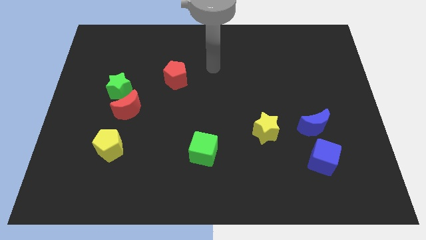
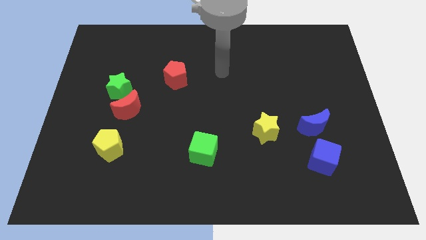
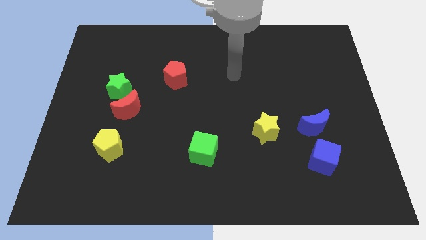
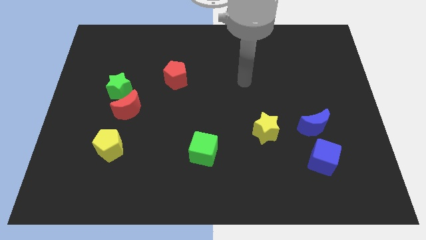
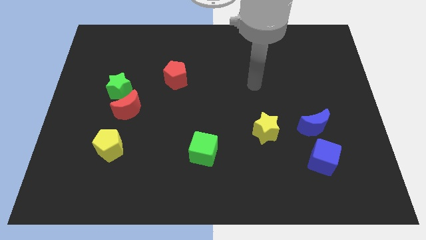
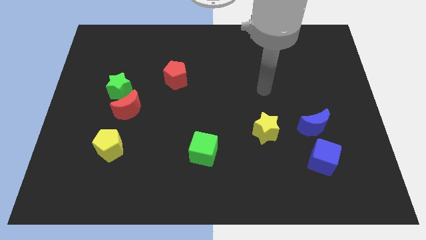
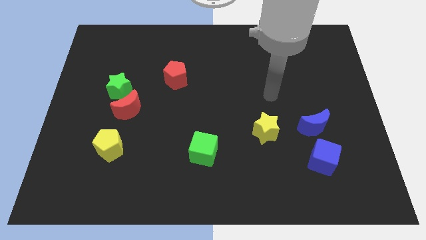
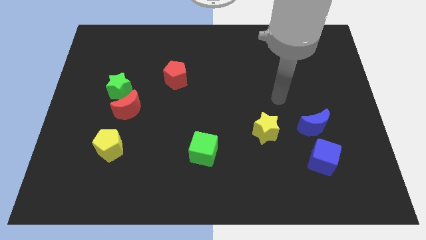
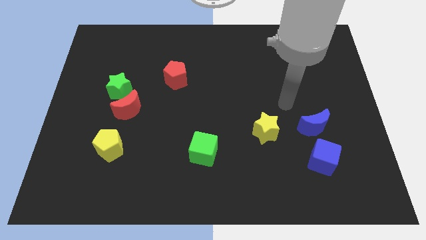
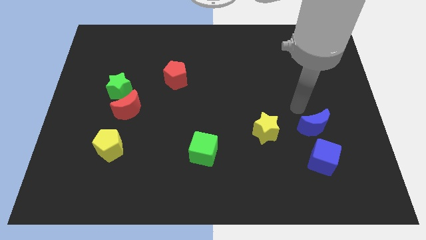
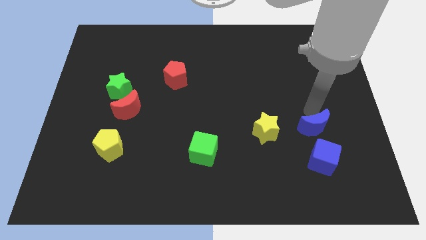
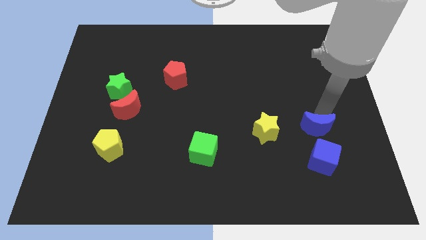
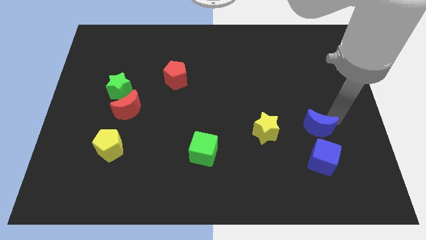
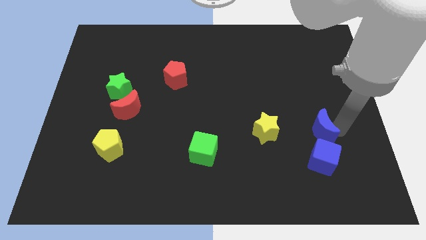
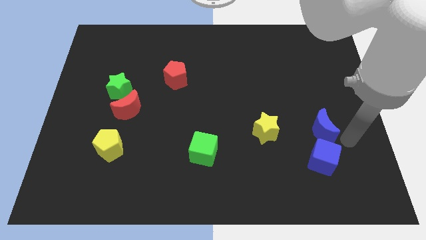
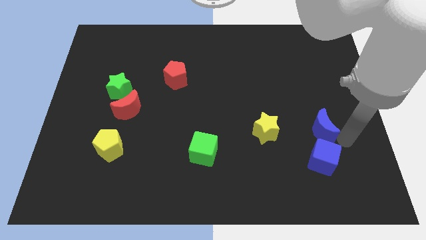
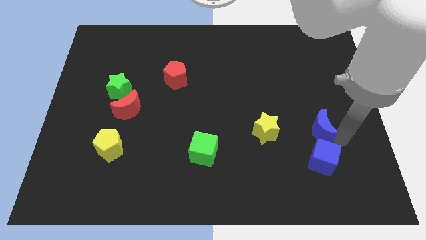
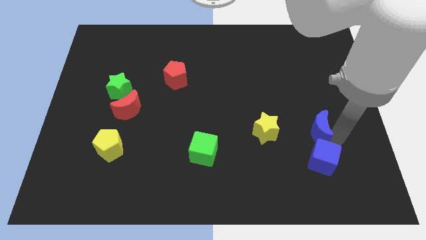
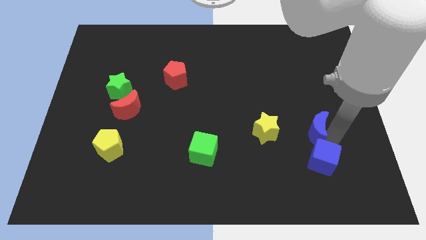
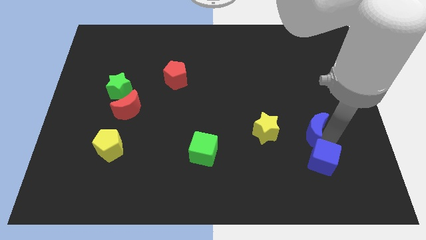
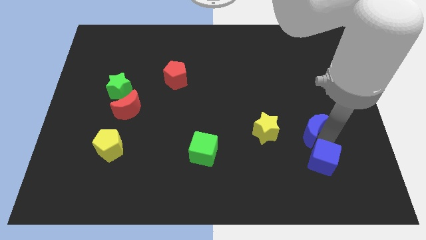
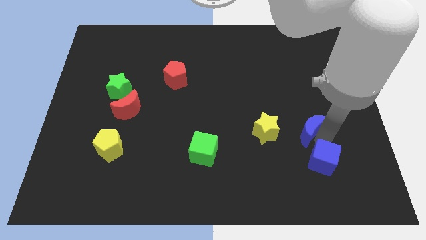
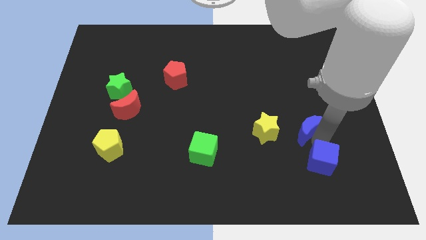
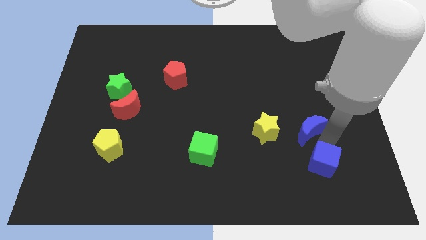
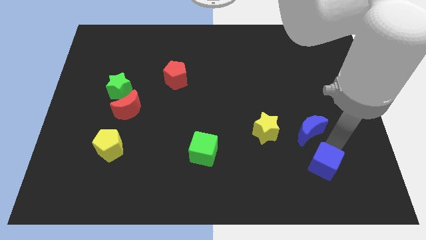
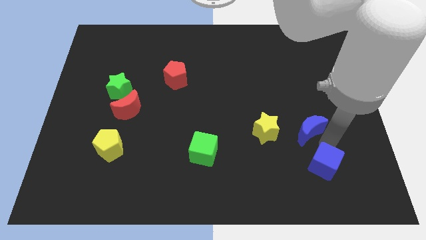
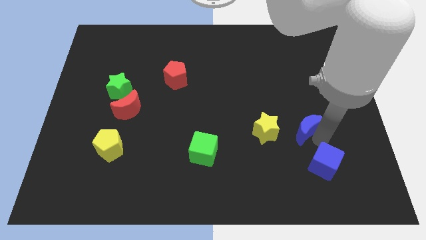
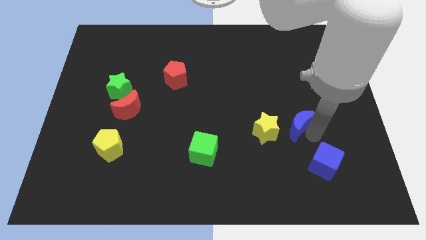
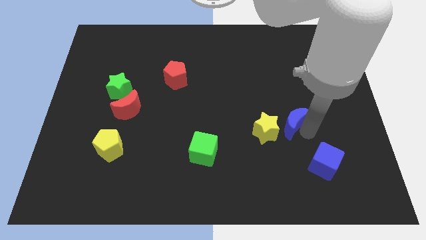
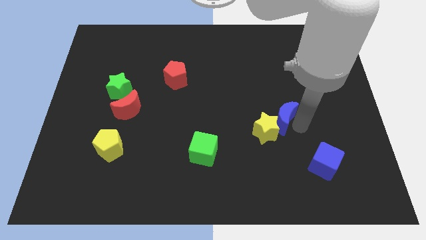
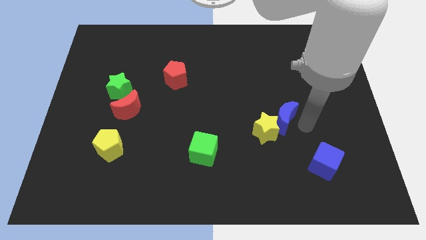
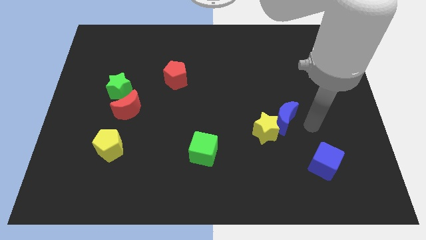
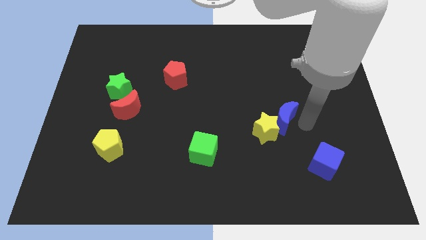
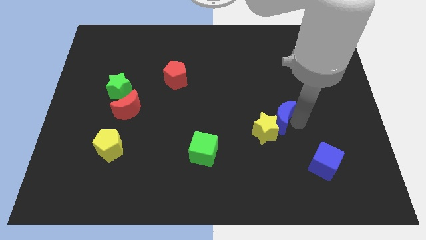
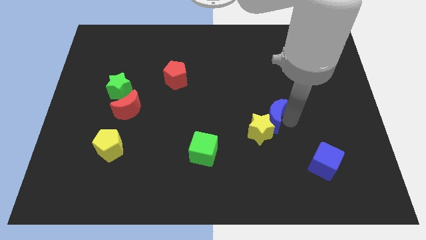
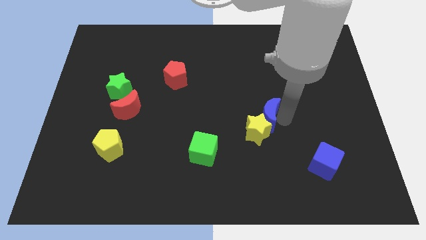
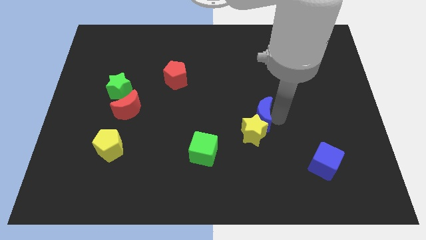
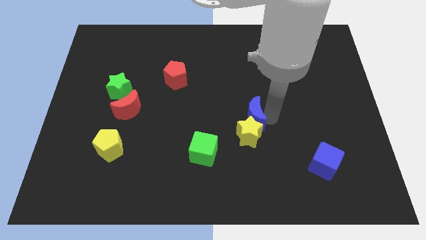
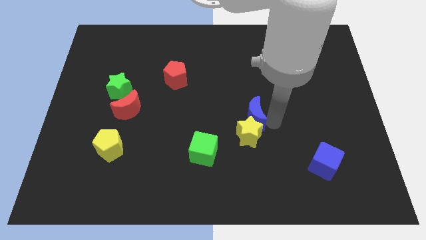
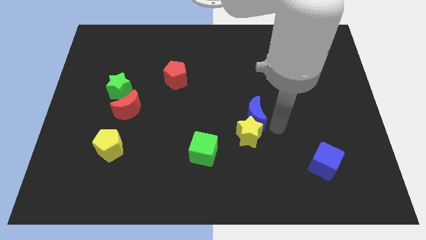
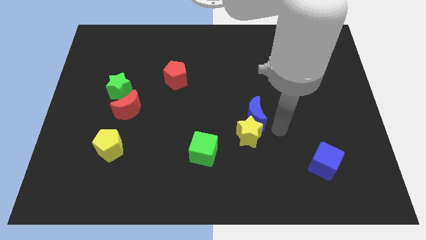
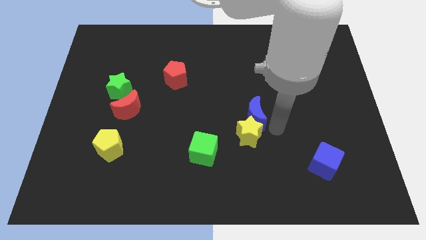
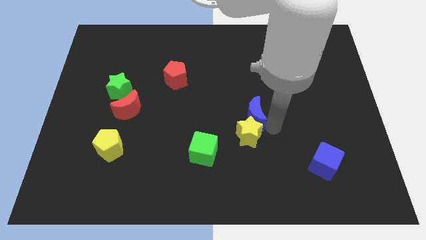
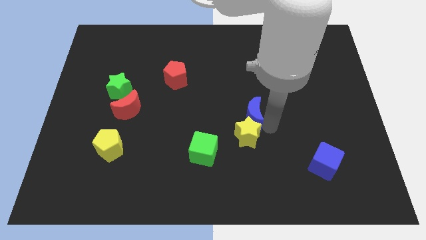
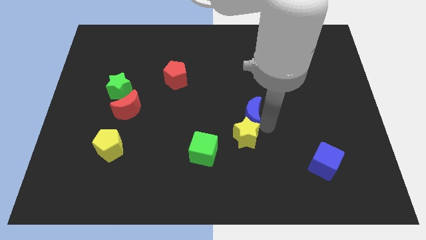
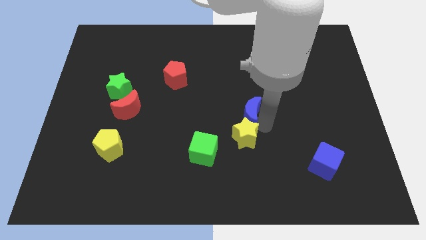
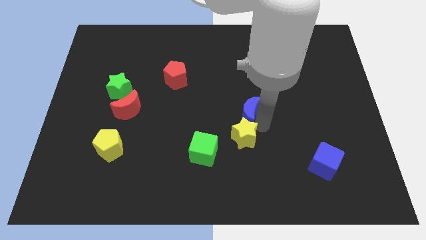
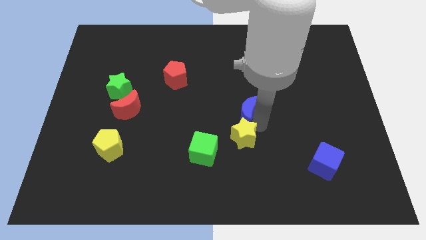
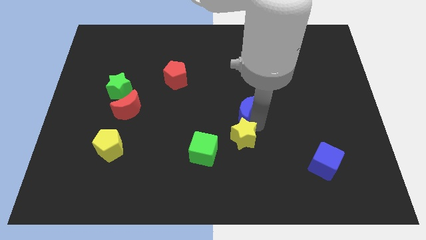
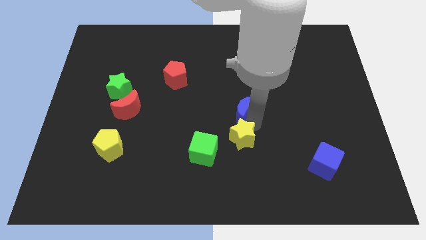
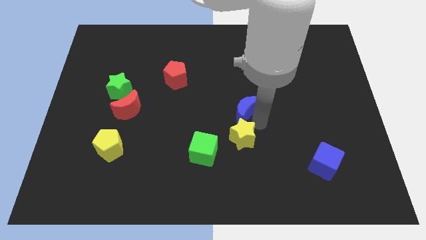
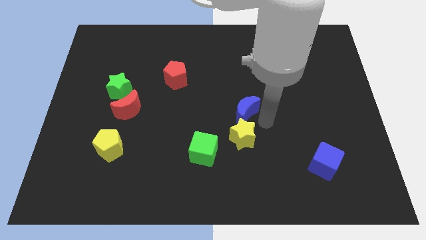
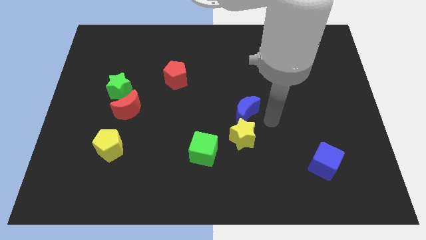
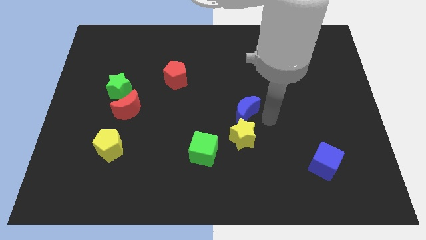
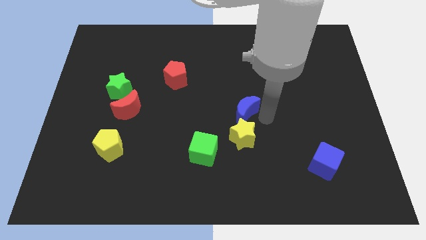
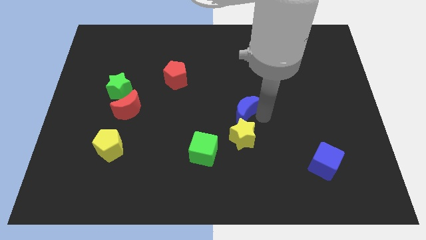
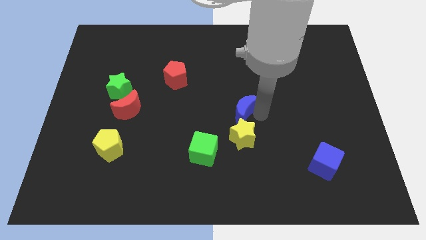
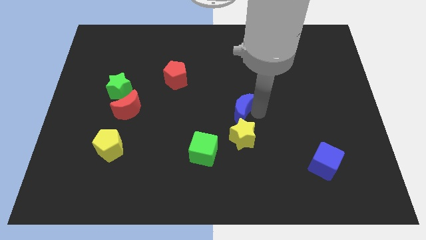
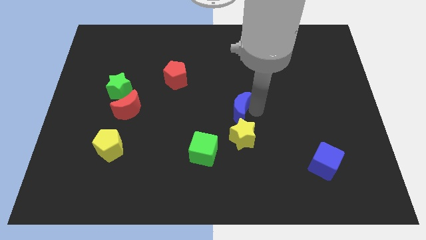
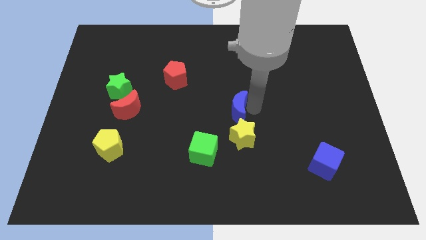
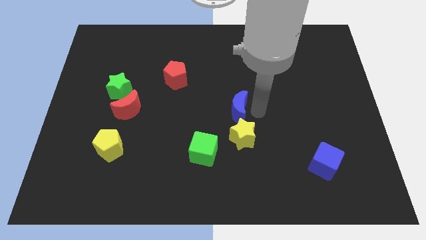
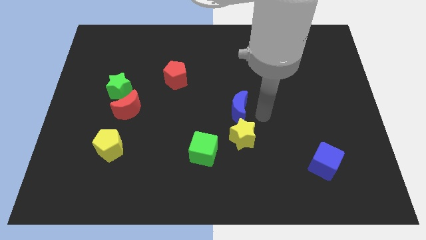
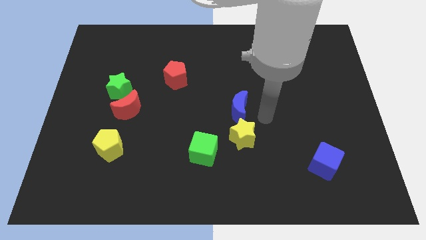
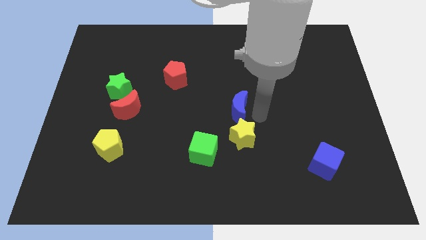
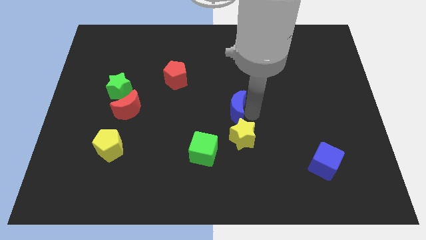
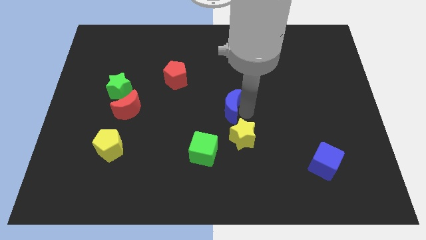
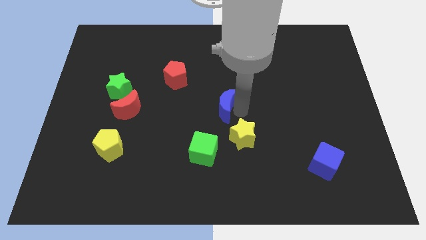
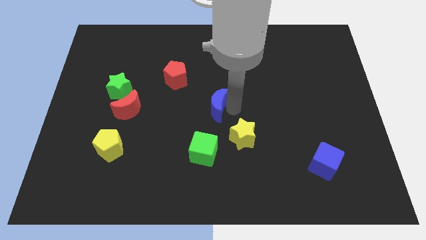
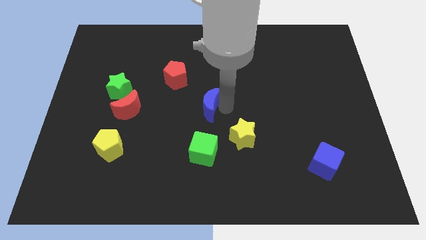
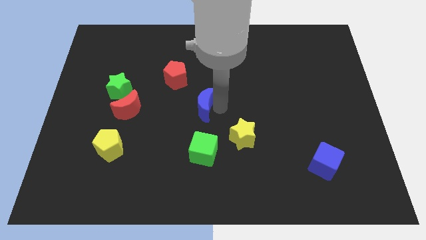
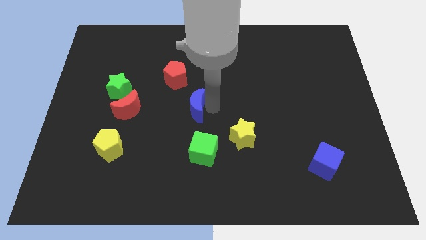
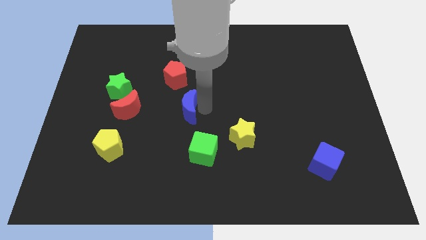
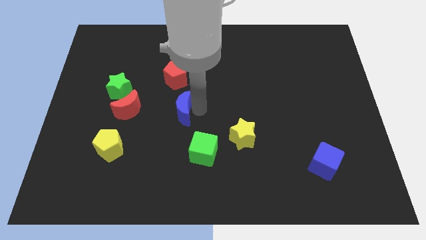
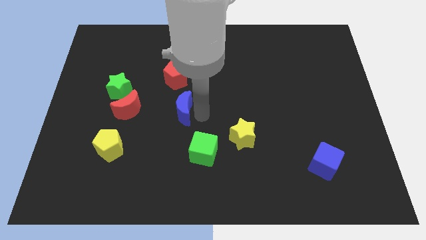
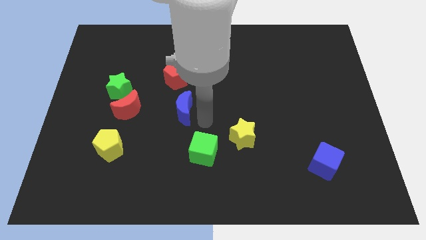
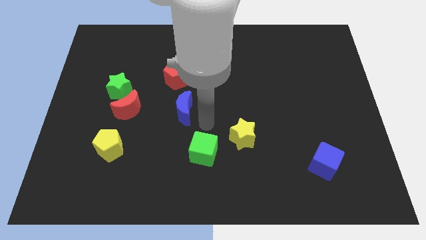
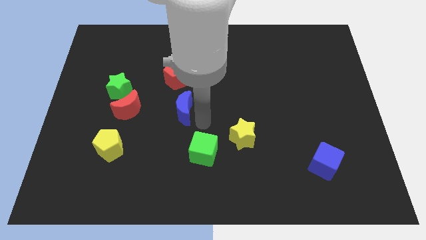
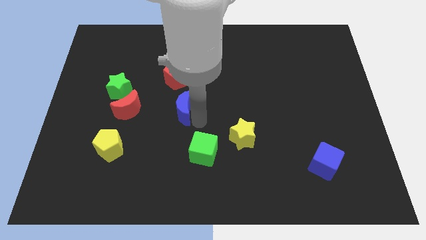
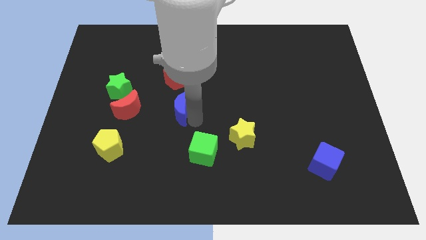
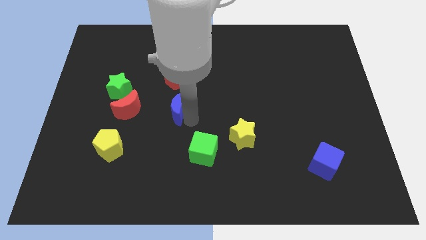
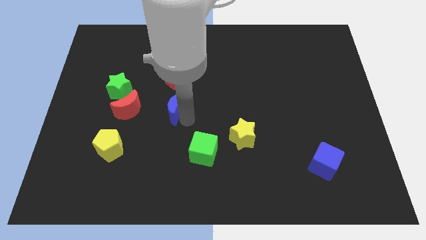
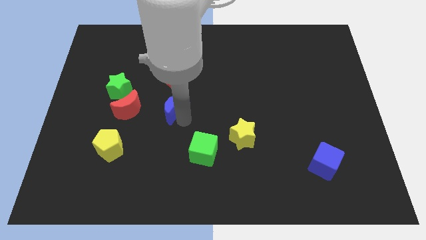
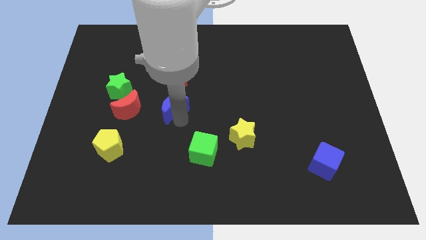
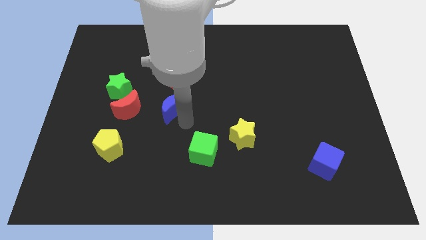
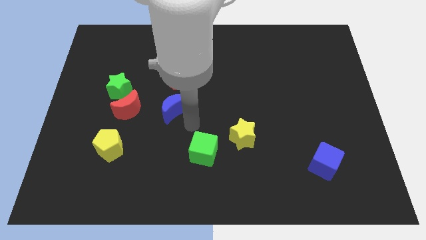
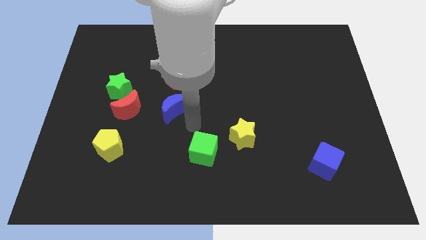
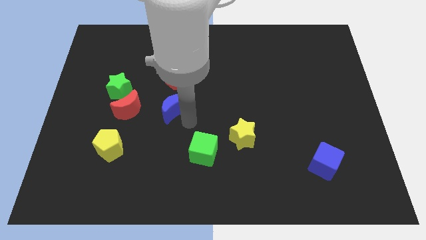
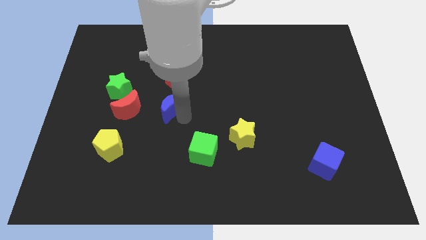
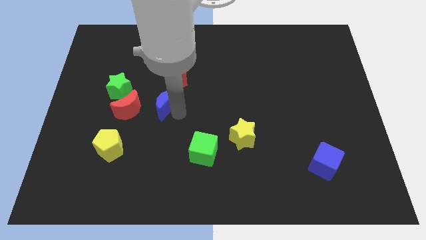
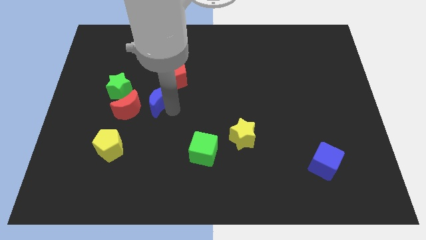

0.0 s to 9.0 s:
put the blue moon diagonally up and to the right of the red moon
